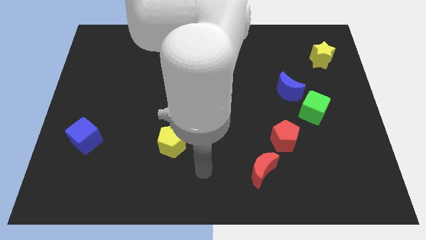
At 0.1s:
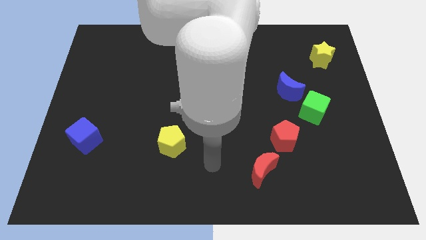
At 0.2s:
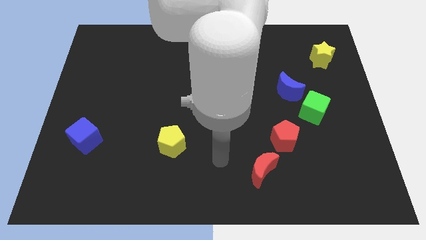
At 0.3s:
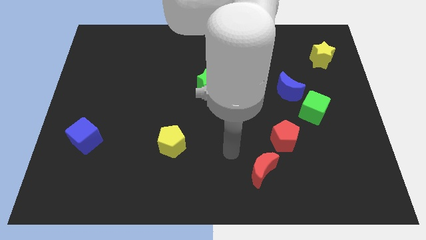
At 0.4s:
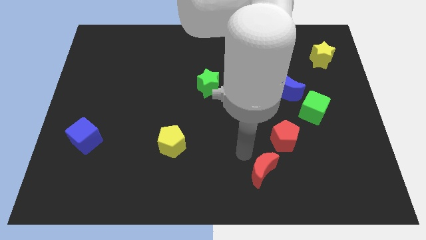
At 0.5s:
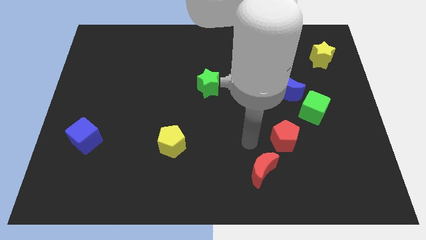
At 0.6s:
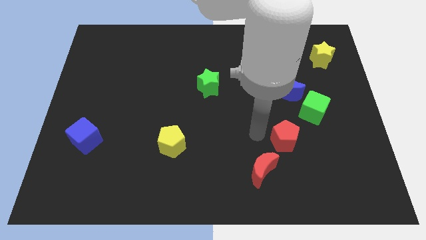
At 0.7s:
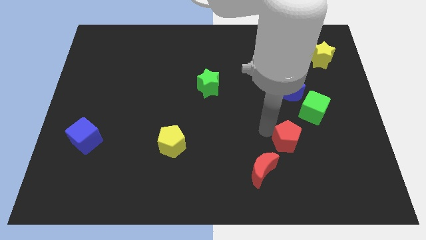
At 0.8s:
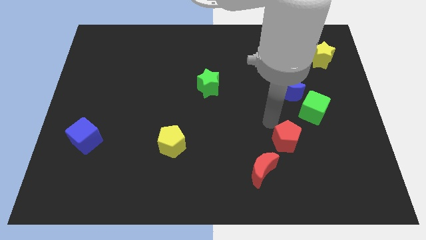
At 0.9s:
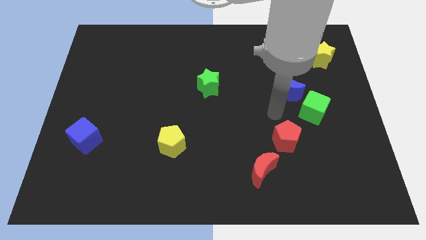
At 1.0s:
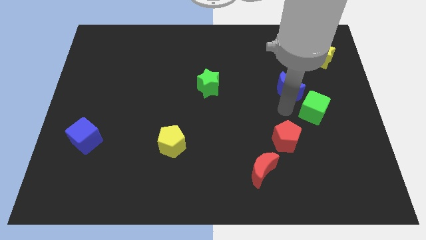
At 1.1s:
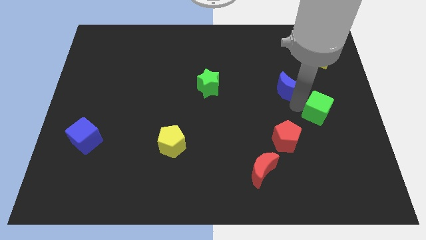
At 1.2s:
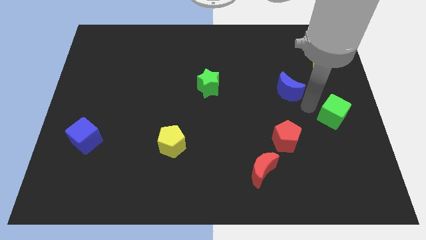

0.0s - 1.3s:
move the blue moon away from the green cube

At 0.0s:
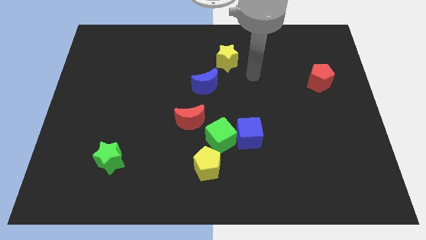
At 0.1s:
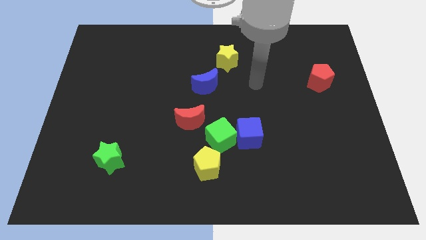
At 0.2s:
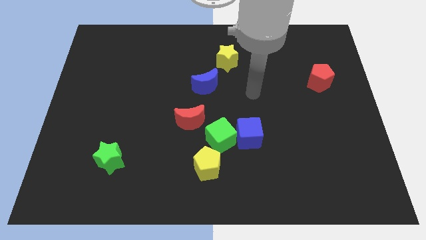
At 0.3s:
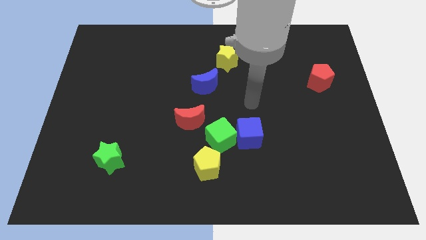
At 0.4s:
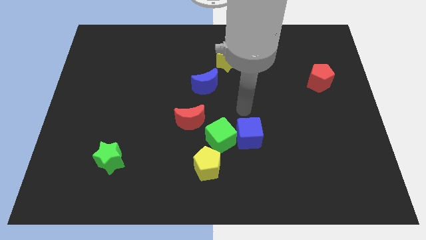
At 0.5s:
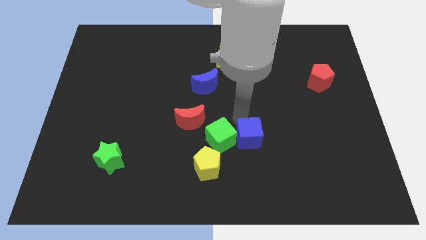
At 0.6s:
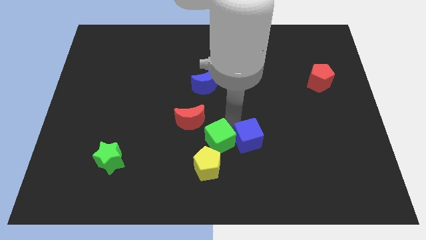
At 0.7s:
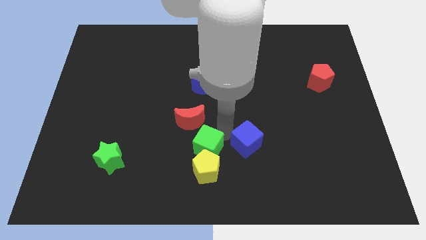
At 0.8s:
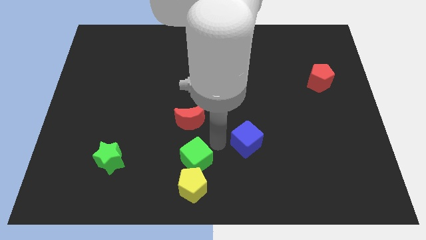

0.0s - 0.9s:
separate the blue cube from the green cube

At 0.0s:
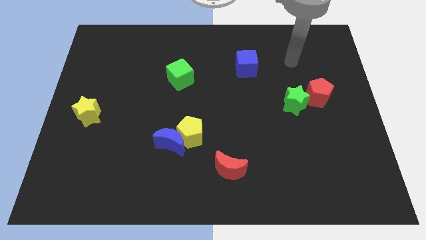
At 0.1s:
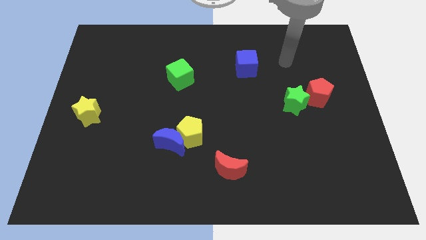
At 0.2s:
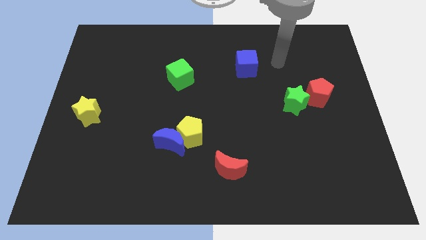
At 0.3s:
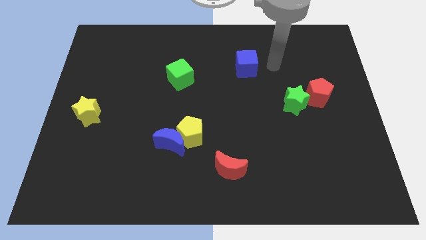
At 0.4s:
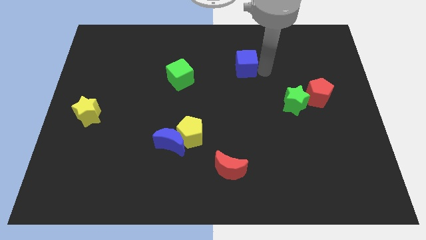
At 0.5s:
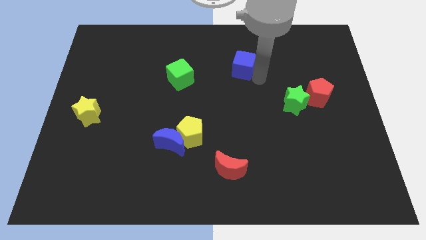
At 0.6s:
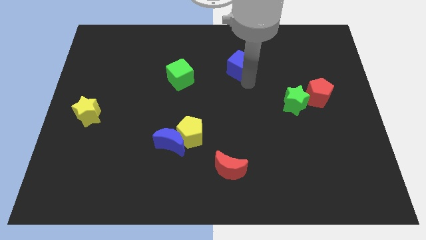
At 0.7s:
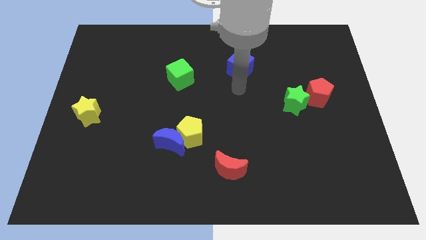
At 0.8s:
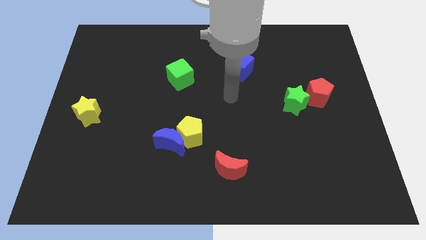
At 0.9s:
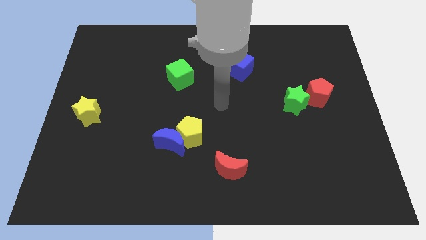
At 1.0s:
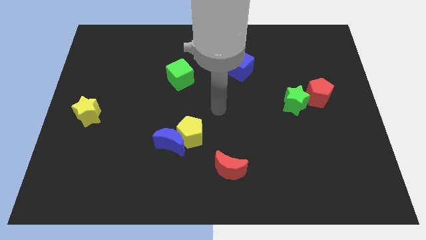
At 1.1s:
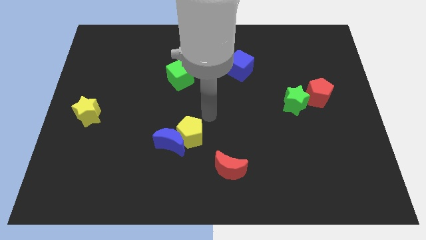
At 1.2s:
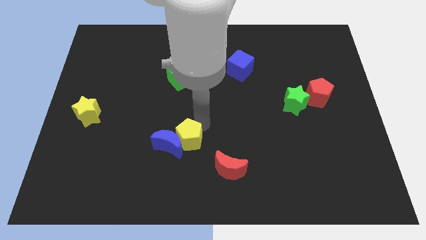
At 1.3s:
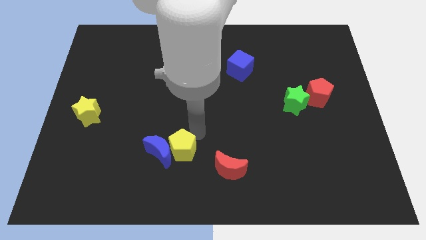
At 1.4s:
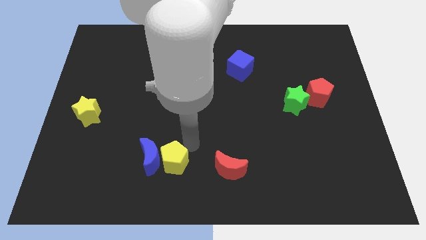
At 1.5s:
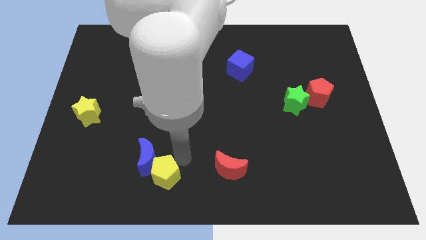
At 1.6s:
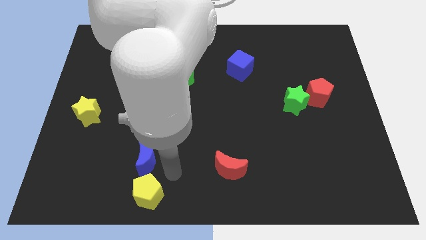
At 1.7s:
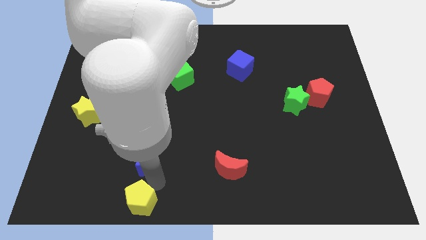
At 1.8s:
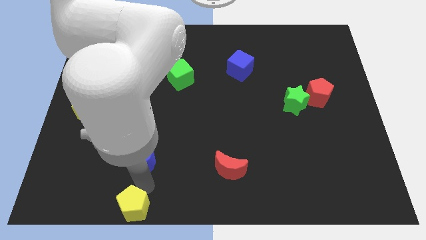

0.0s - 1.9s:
move the blue moon away from the yellow pentagon

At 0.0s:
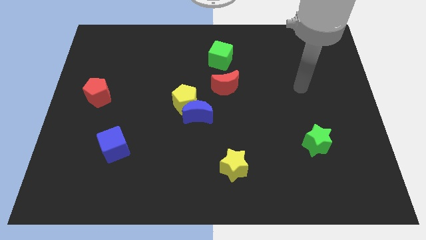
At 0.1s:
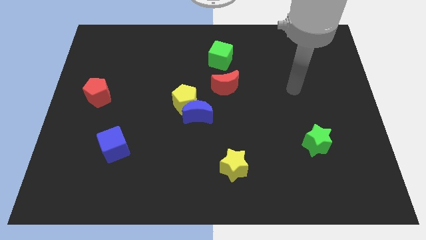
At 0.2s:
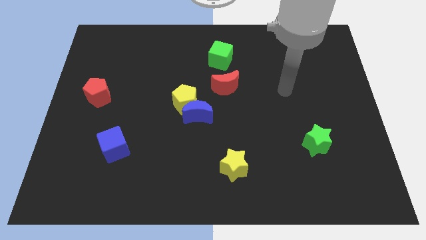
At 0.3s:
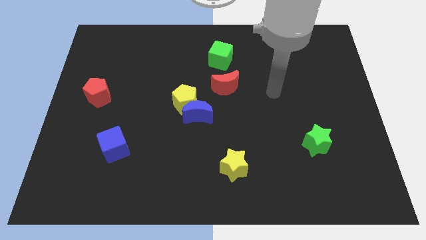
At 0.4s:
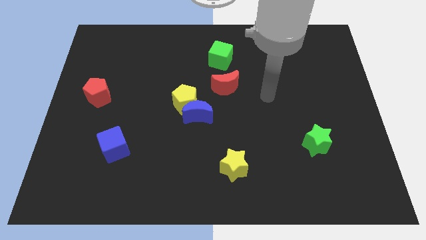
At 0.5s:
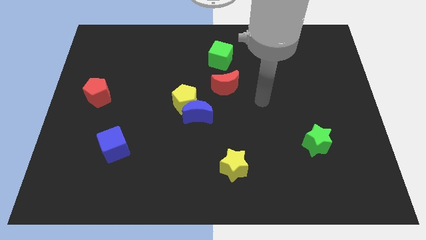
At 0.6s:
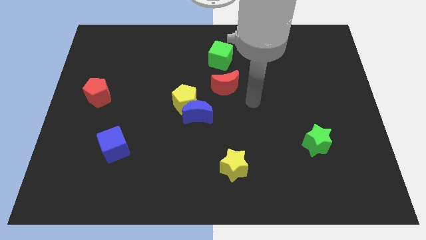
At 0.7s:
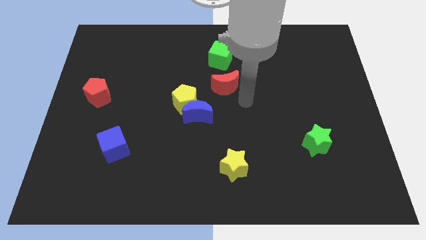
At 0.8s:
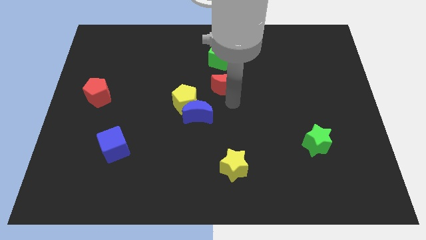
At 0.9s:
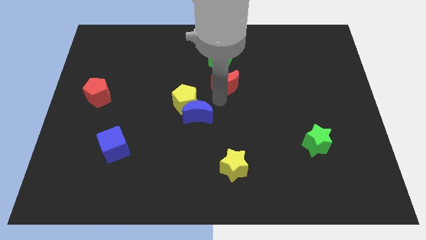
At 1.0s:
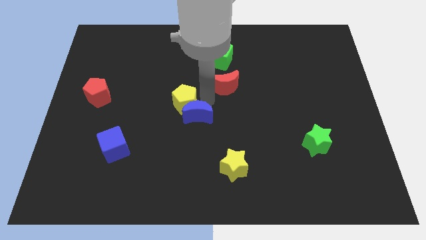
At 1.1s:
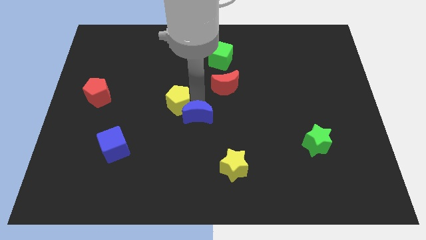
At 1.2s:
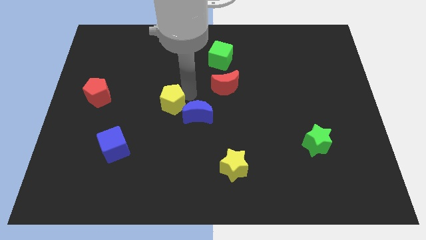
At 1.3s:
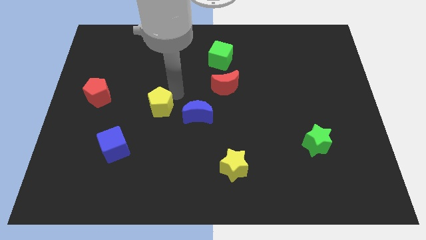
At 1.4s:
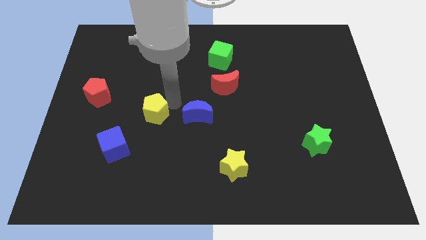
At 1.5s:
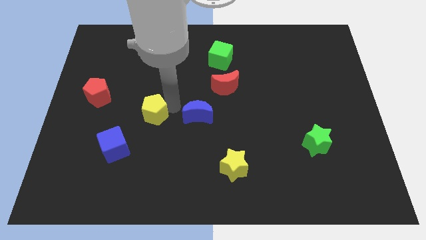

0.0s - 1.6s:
pull the blue moon apart from the yellow pentagon

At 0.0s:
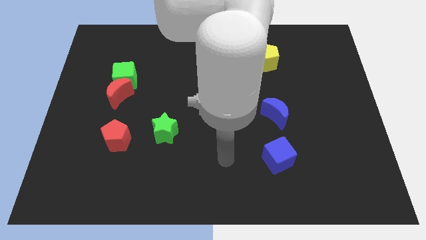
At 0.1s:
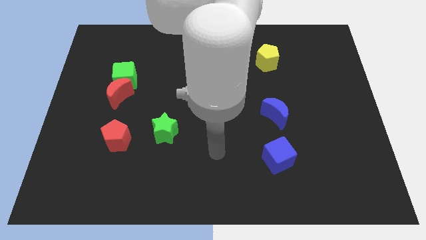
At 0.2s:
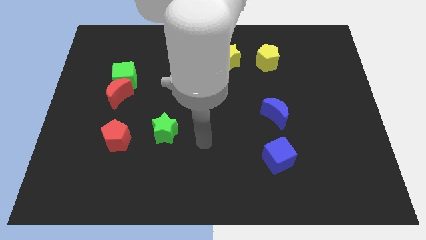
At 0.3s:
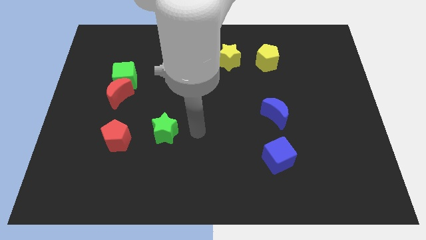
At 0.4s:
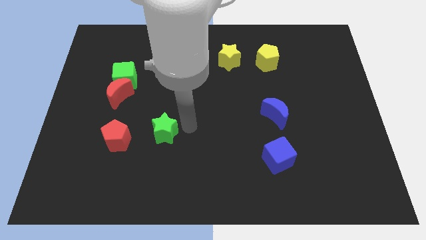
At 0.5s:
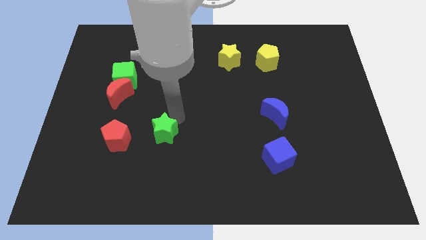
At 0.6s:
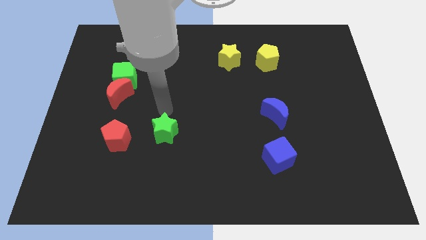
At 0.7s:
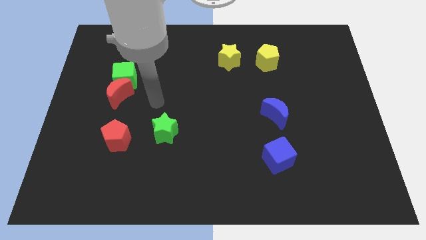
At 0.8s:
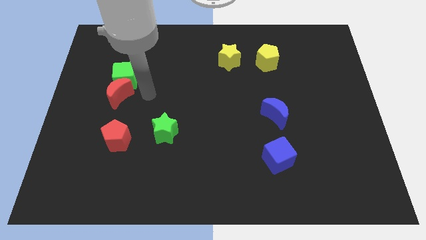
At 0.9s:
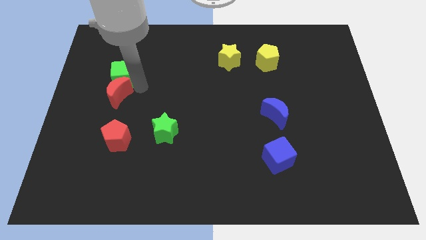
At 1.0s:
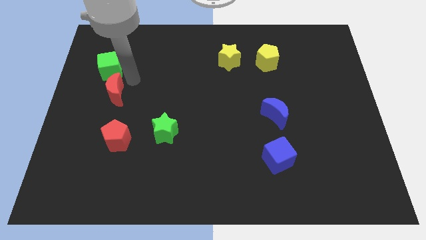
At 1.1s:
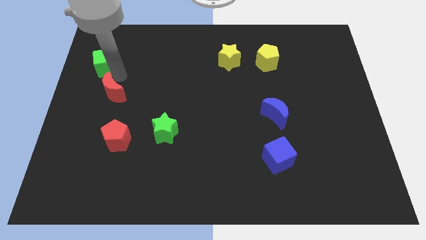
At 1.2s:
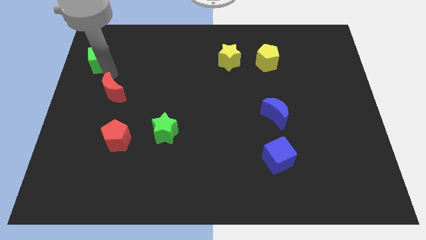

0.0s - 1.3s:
separate the red moon from the green cube

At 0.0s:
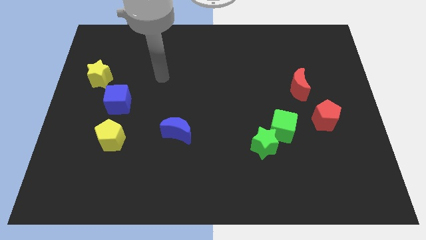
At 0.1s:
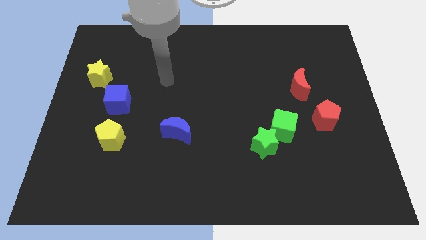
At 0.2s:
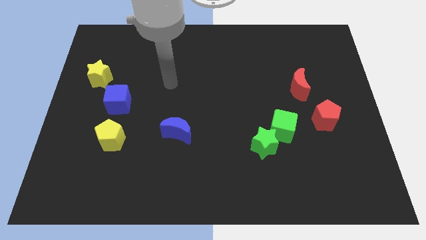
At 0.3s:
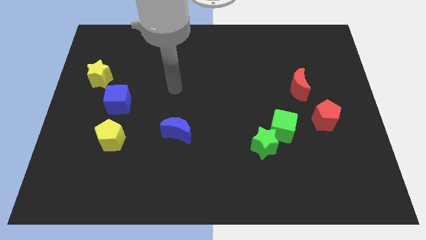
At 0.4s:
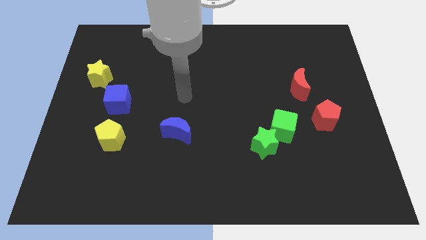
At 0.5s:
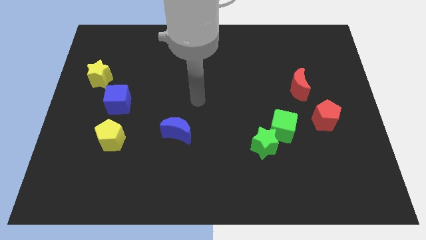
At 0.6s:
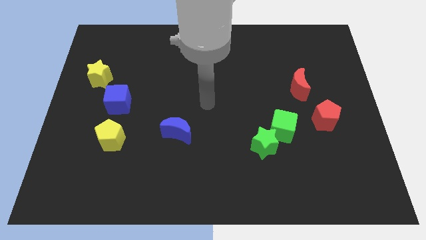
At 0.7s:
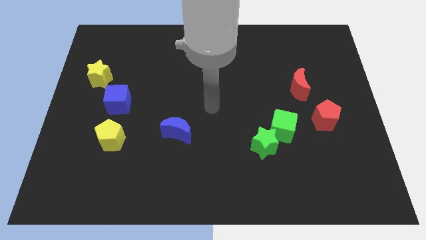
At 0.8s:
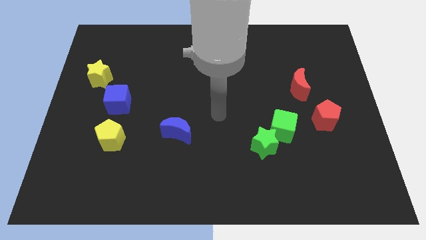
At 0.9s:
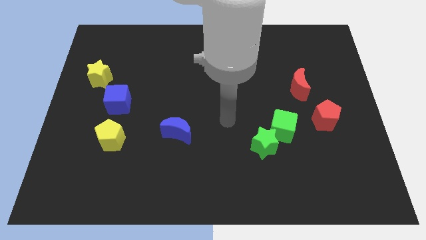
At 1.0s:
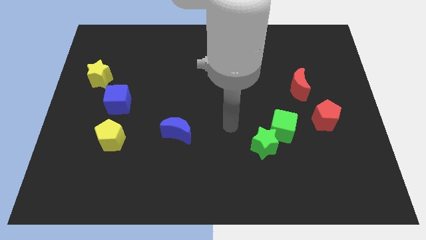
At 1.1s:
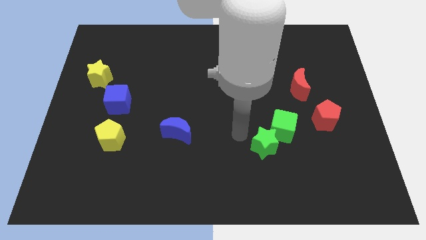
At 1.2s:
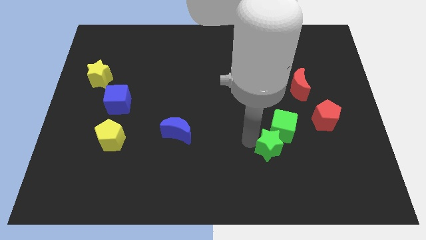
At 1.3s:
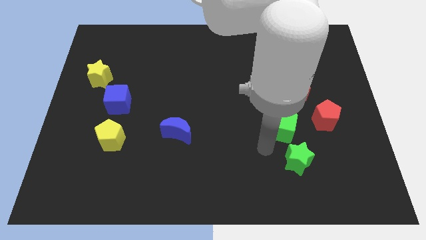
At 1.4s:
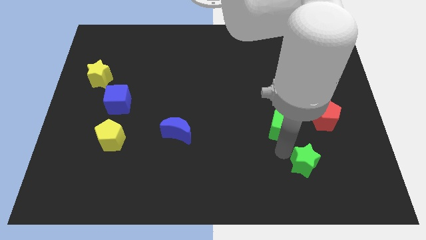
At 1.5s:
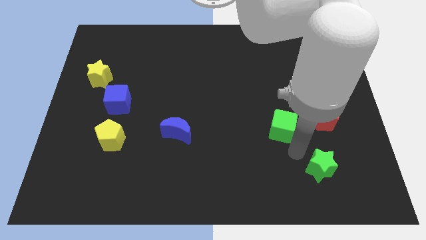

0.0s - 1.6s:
move the green cube away from the green star

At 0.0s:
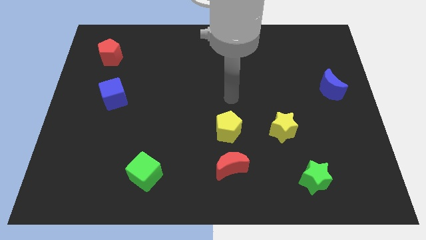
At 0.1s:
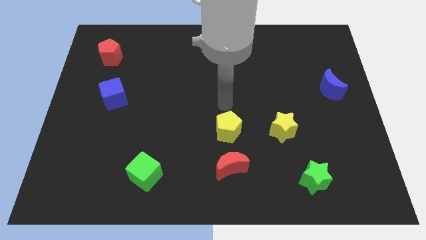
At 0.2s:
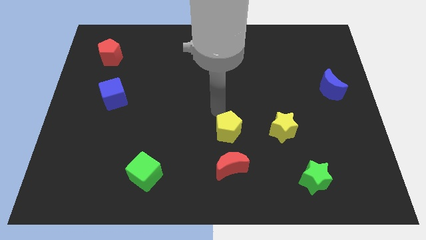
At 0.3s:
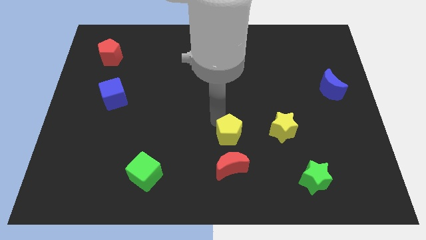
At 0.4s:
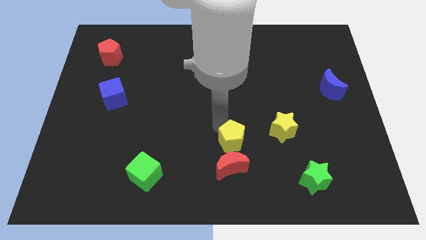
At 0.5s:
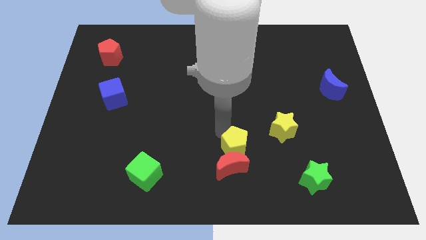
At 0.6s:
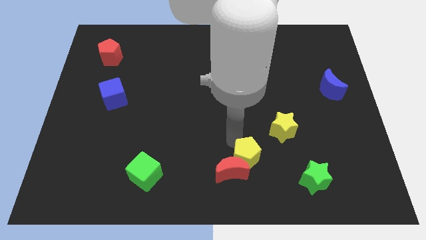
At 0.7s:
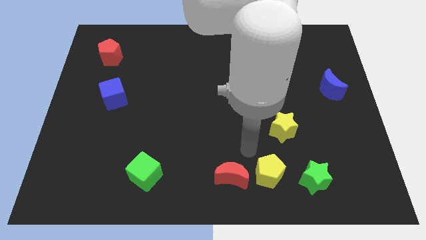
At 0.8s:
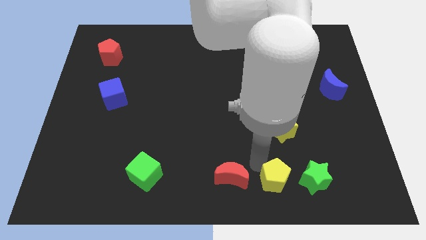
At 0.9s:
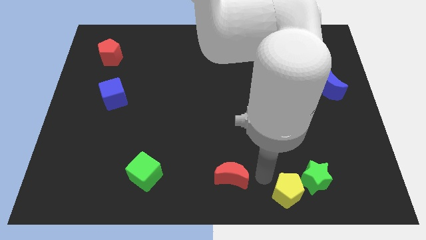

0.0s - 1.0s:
separate the red moon from the yellow pentagon
